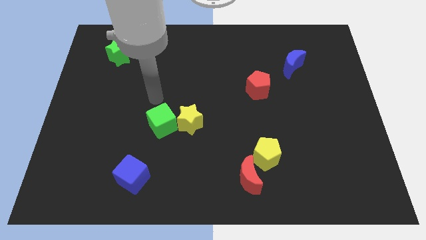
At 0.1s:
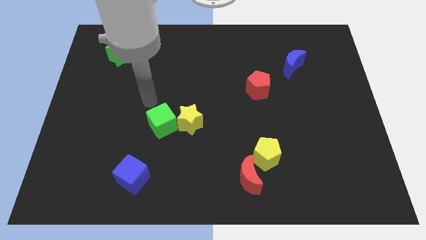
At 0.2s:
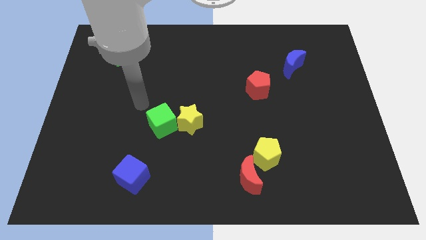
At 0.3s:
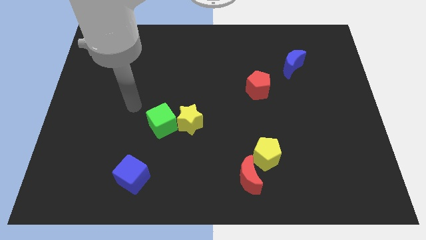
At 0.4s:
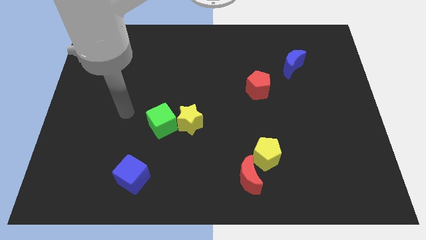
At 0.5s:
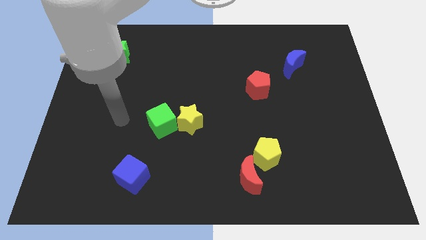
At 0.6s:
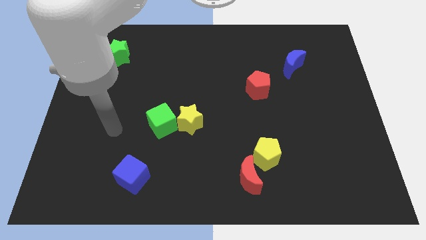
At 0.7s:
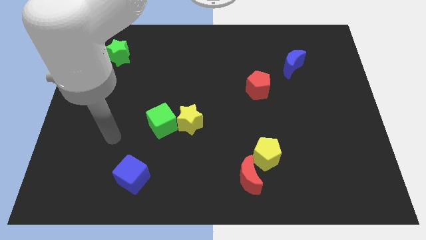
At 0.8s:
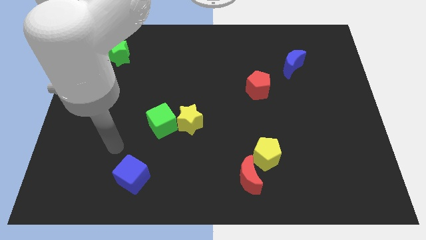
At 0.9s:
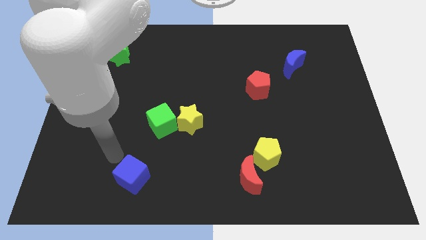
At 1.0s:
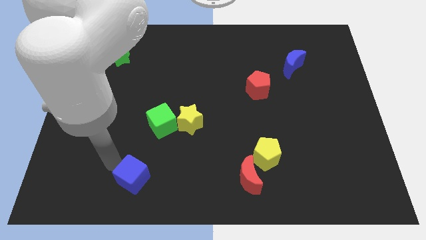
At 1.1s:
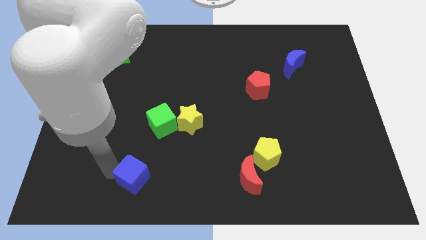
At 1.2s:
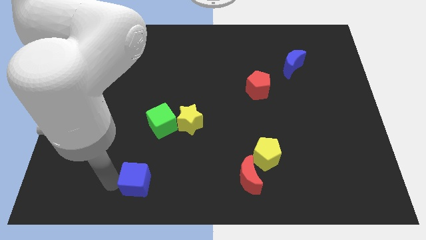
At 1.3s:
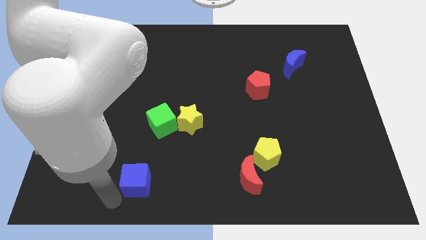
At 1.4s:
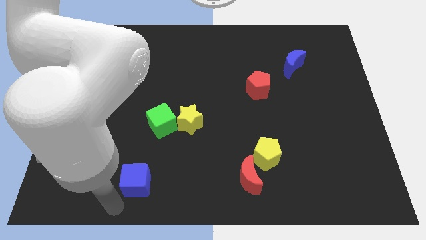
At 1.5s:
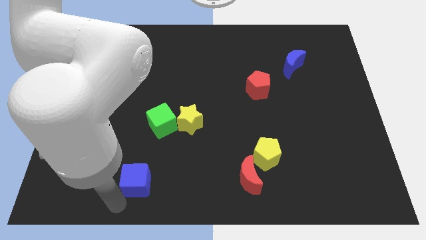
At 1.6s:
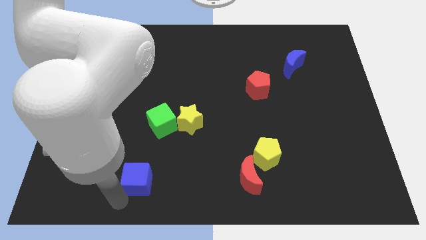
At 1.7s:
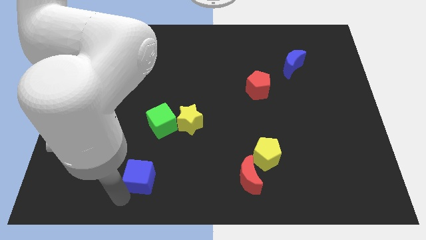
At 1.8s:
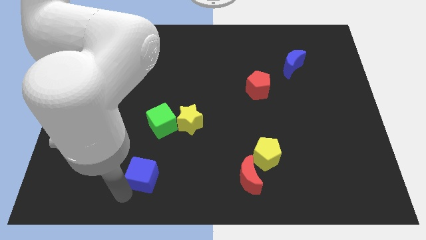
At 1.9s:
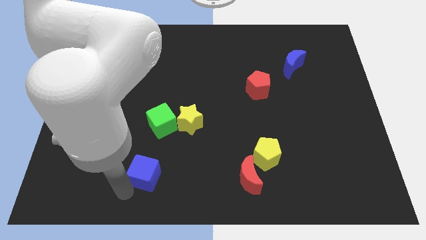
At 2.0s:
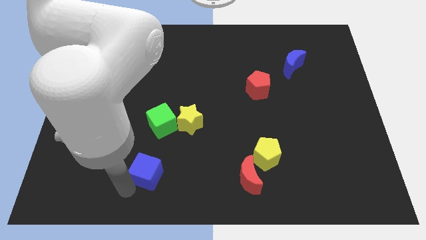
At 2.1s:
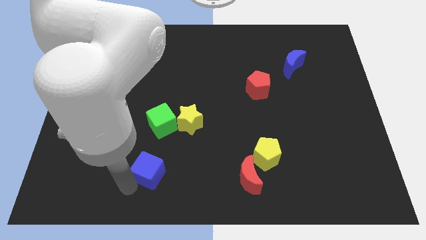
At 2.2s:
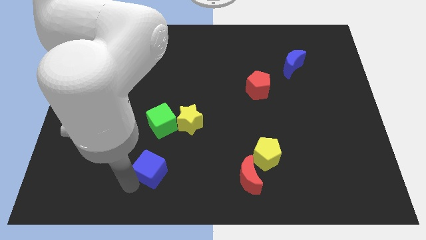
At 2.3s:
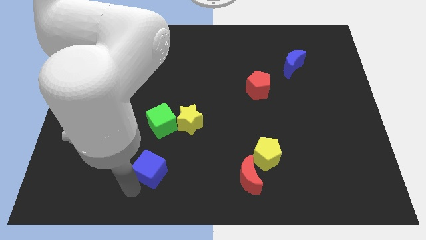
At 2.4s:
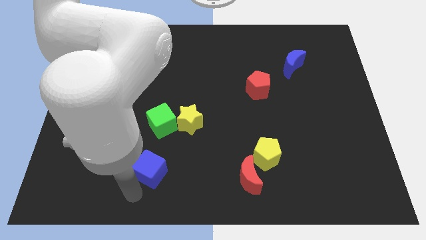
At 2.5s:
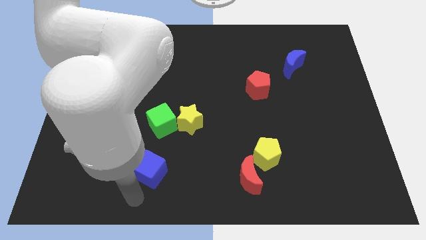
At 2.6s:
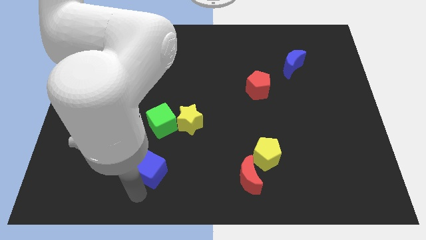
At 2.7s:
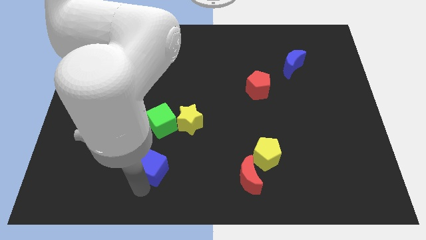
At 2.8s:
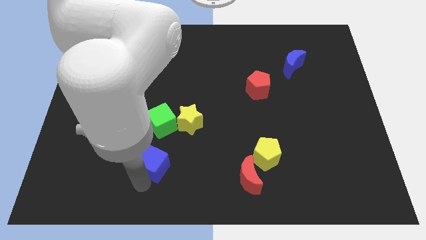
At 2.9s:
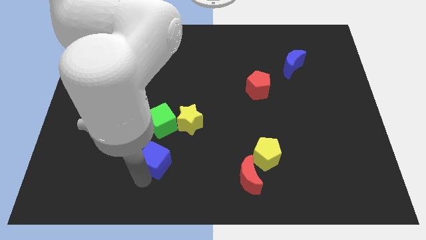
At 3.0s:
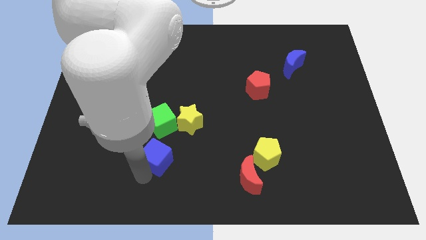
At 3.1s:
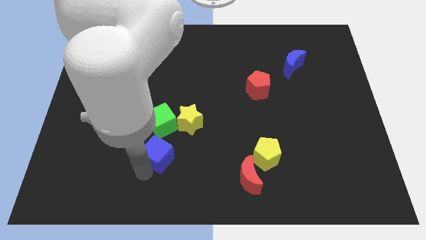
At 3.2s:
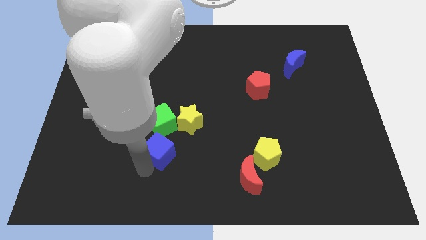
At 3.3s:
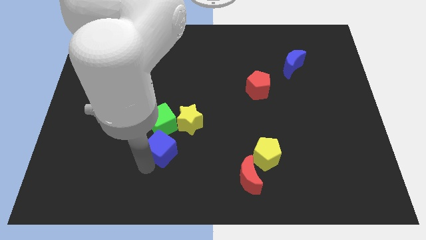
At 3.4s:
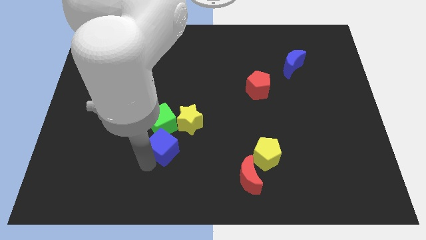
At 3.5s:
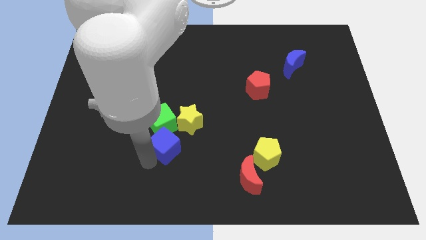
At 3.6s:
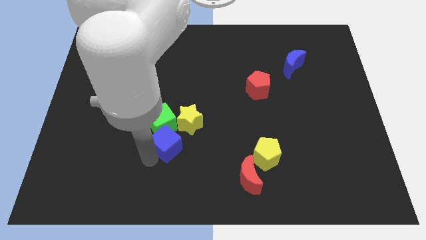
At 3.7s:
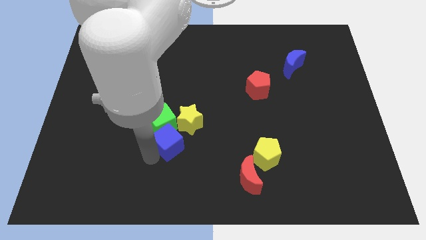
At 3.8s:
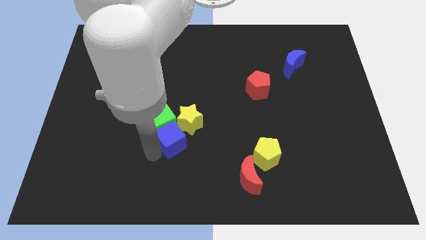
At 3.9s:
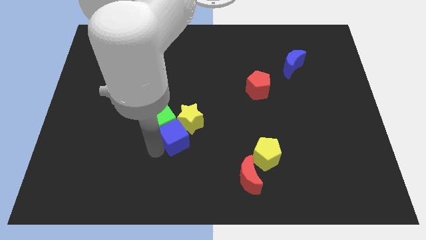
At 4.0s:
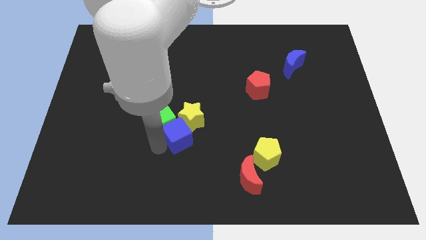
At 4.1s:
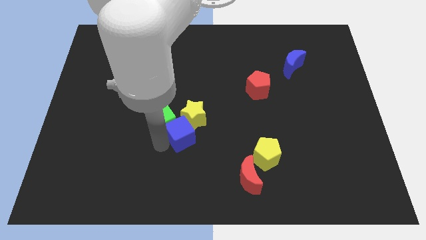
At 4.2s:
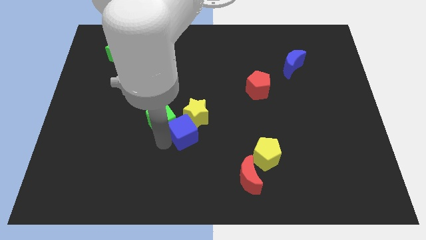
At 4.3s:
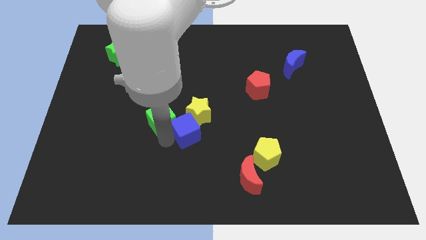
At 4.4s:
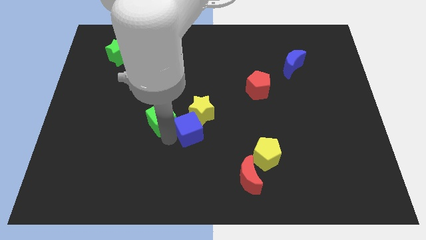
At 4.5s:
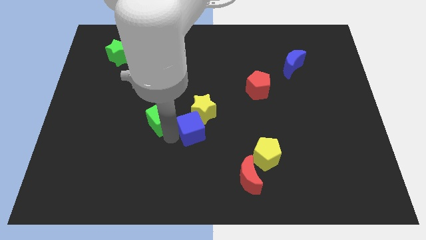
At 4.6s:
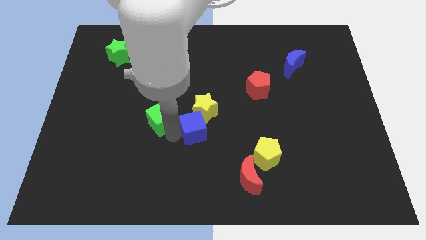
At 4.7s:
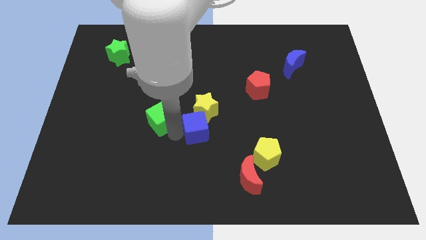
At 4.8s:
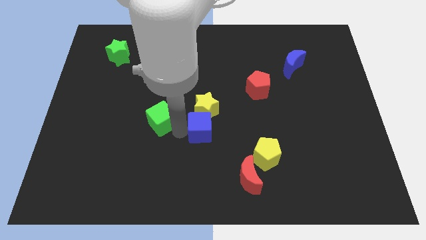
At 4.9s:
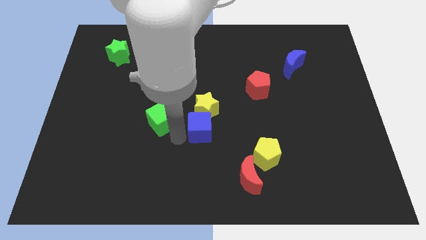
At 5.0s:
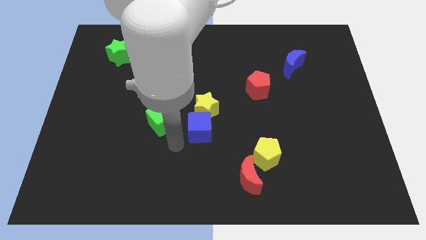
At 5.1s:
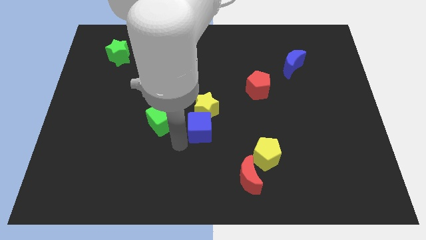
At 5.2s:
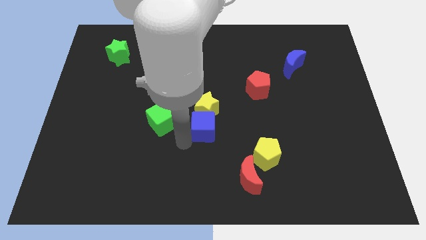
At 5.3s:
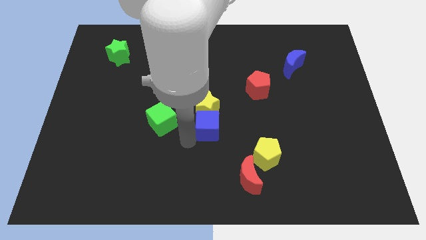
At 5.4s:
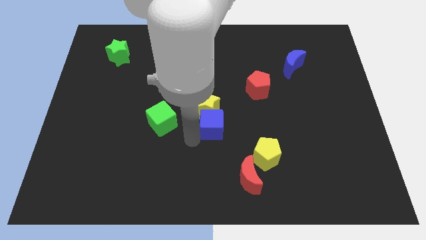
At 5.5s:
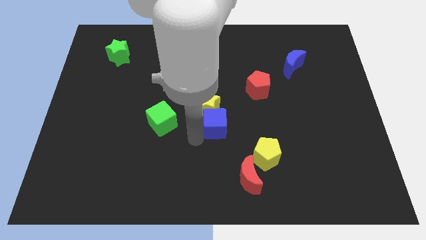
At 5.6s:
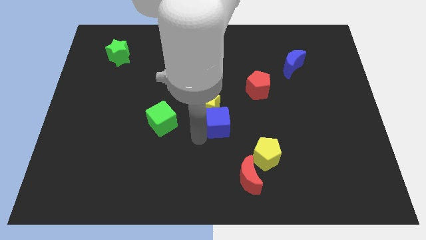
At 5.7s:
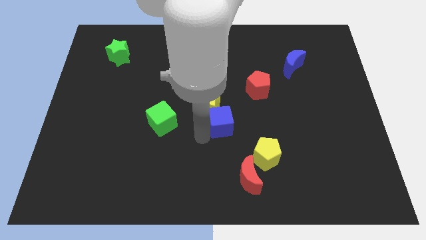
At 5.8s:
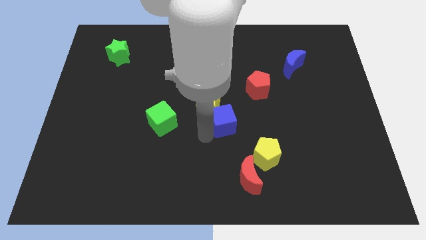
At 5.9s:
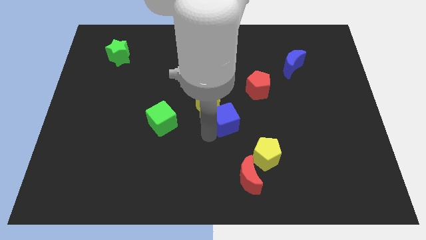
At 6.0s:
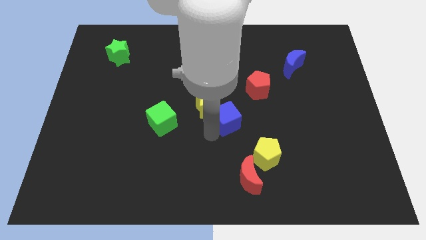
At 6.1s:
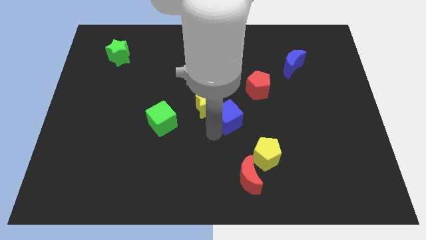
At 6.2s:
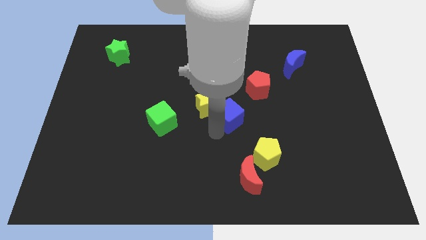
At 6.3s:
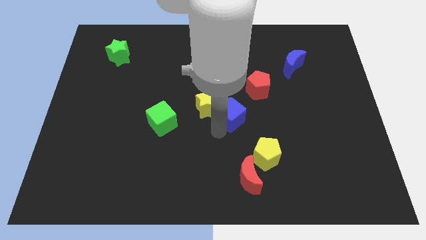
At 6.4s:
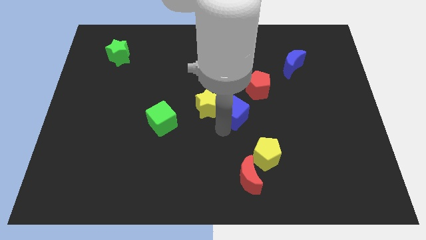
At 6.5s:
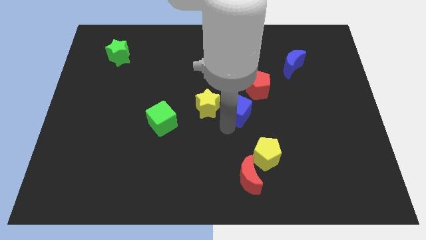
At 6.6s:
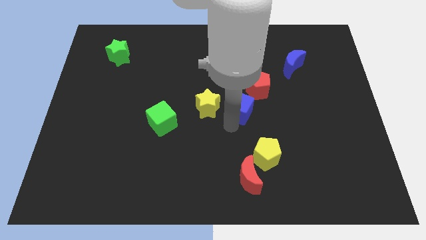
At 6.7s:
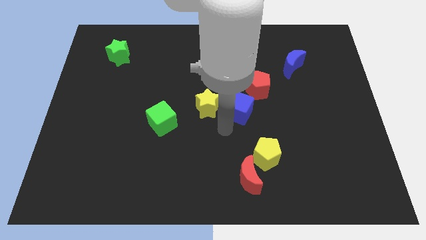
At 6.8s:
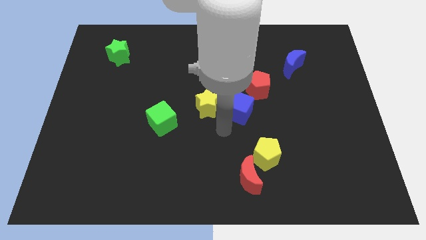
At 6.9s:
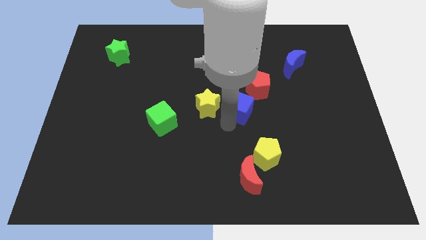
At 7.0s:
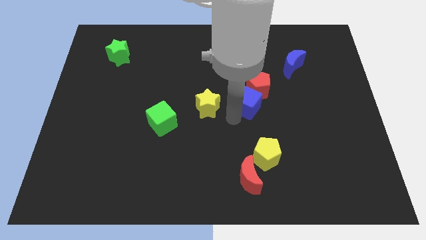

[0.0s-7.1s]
put the blue cube towards the red pentagon
